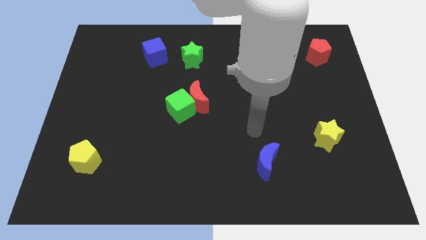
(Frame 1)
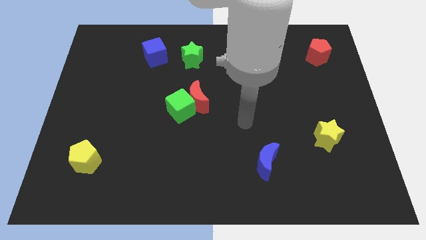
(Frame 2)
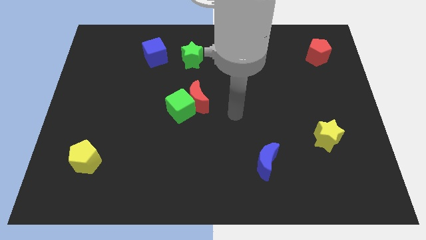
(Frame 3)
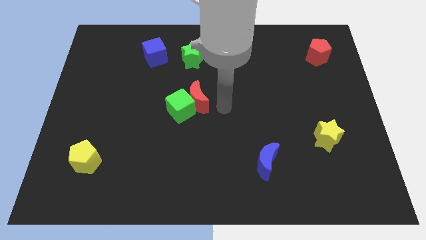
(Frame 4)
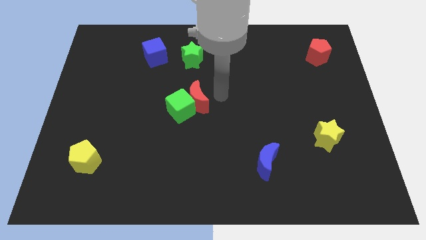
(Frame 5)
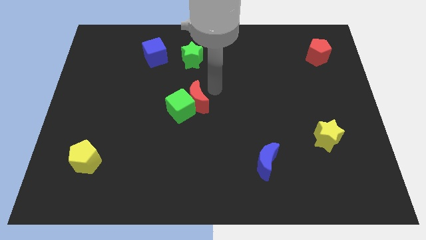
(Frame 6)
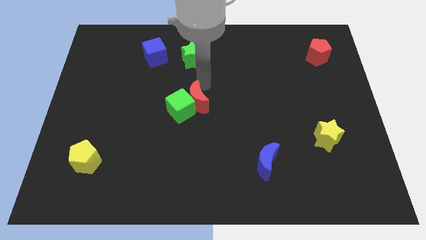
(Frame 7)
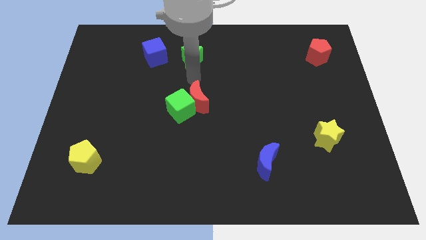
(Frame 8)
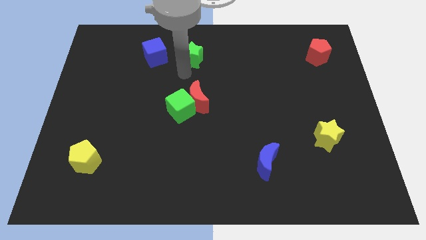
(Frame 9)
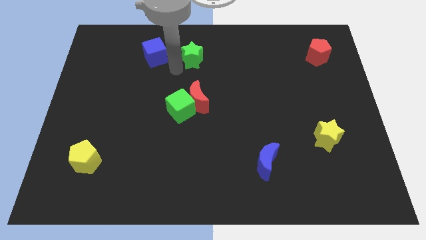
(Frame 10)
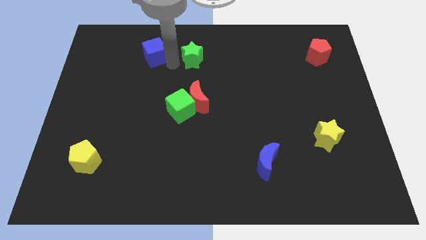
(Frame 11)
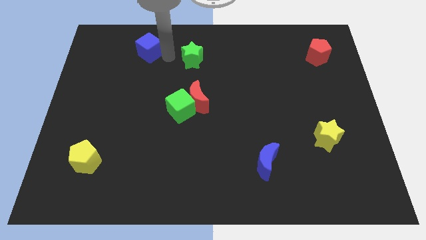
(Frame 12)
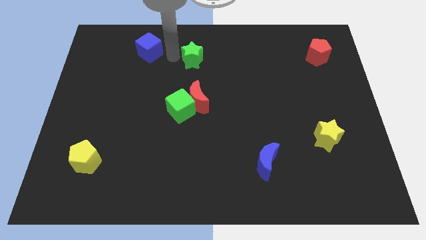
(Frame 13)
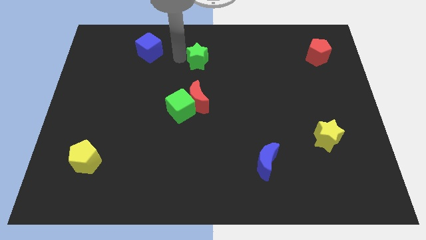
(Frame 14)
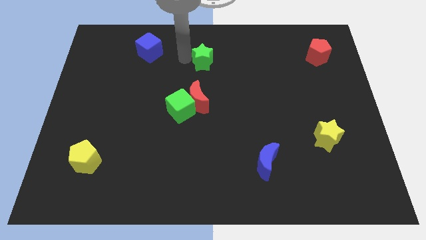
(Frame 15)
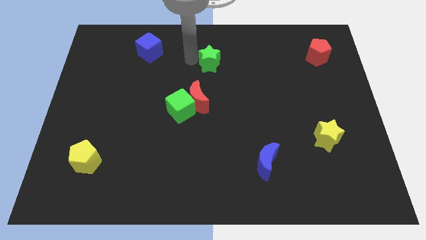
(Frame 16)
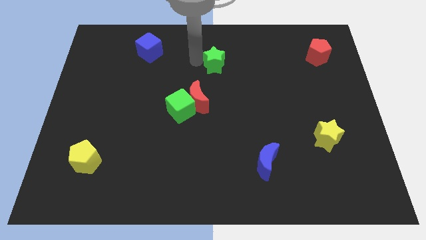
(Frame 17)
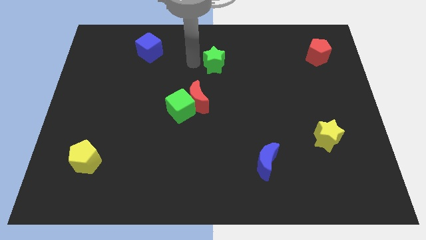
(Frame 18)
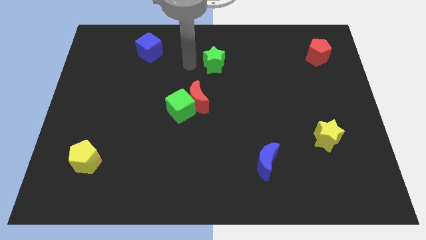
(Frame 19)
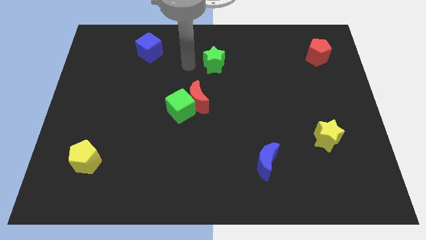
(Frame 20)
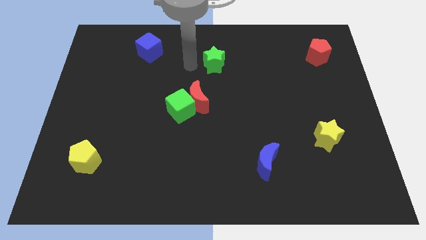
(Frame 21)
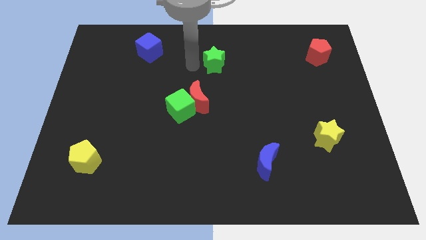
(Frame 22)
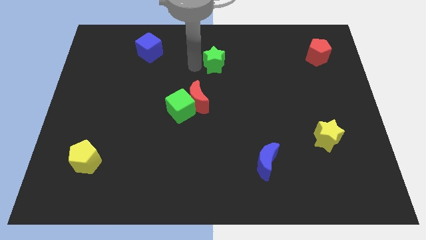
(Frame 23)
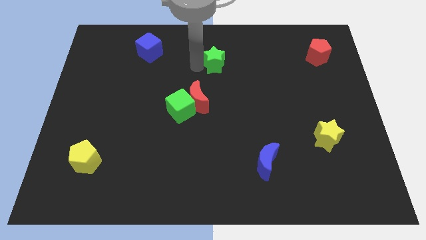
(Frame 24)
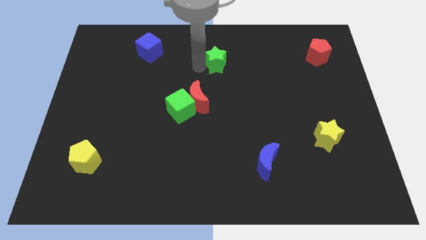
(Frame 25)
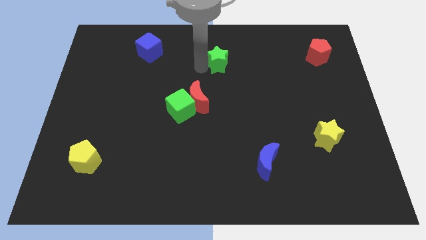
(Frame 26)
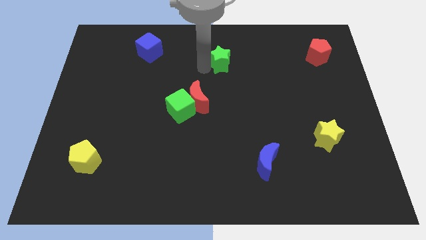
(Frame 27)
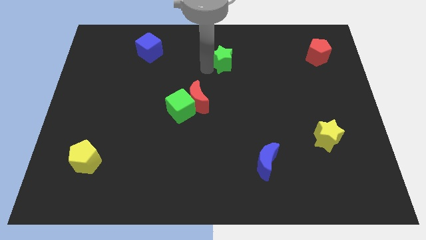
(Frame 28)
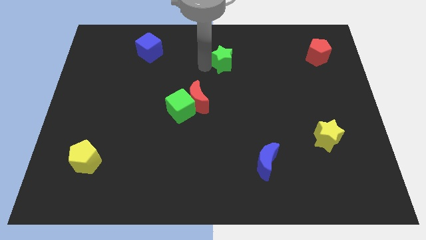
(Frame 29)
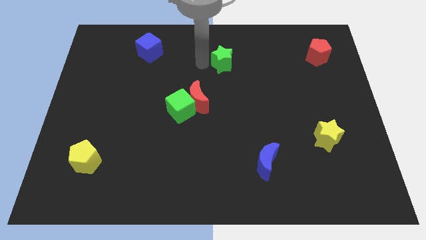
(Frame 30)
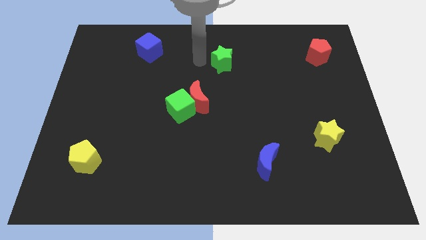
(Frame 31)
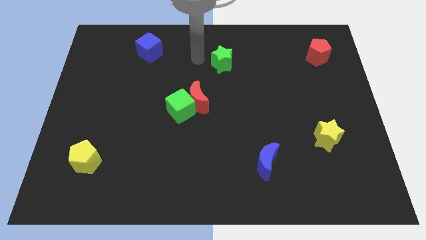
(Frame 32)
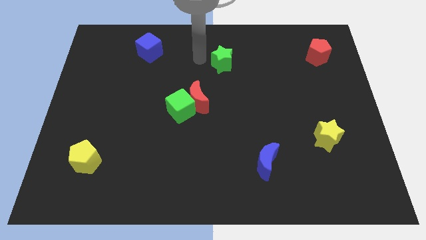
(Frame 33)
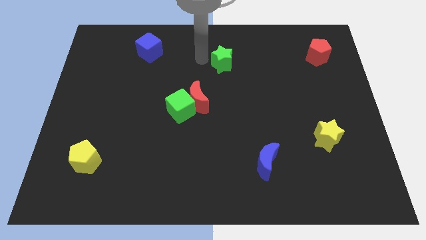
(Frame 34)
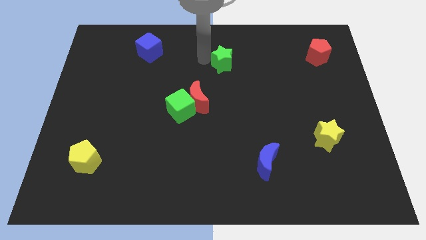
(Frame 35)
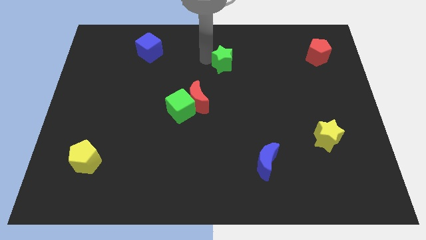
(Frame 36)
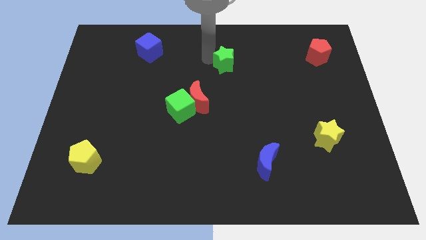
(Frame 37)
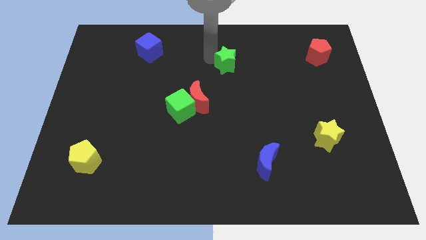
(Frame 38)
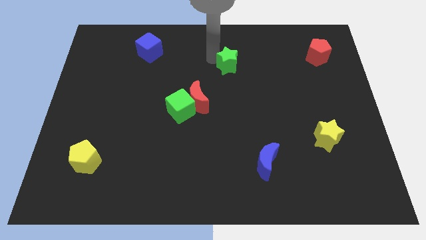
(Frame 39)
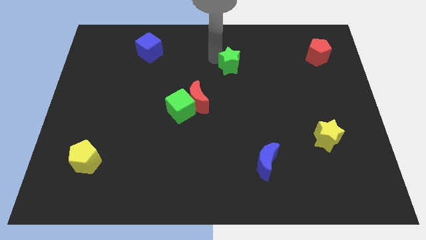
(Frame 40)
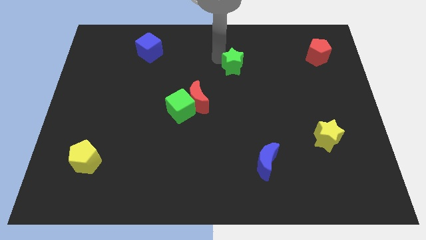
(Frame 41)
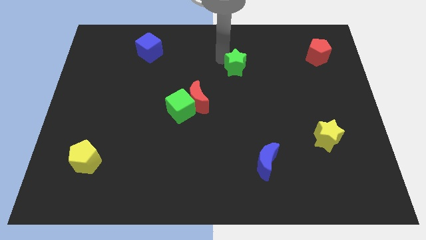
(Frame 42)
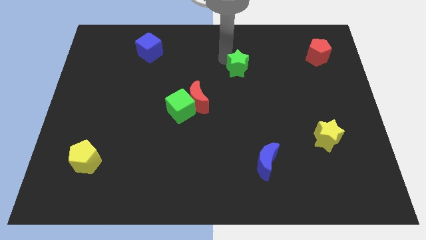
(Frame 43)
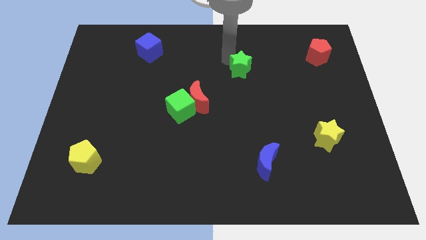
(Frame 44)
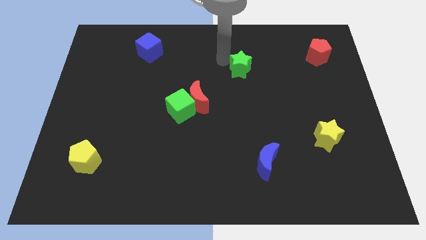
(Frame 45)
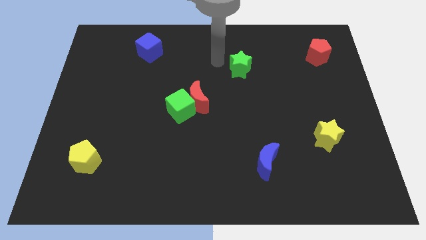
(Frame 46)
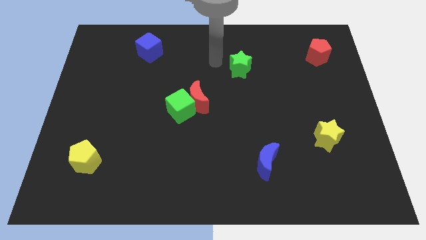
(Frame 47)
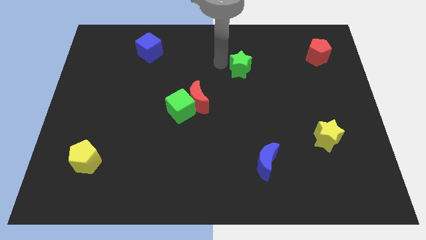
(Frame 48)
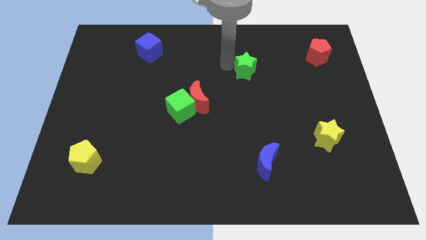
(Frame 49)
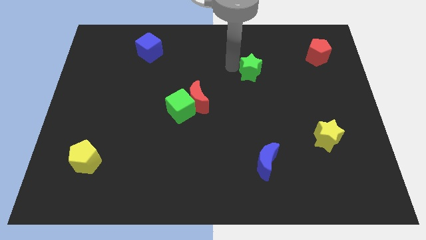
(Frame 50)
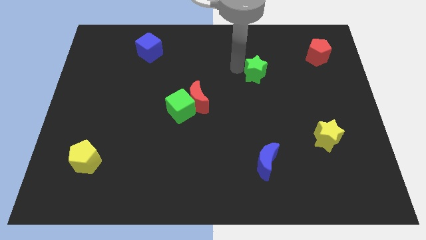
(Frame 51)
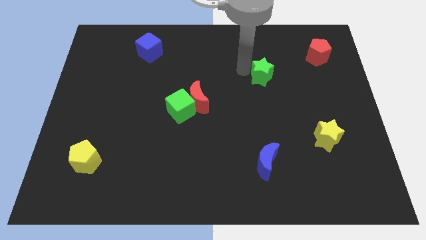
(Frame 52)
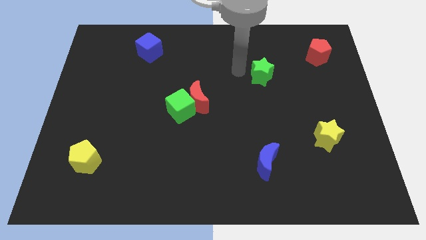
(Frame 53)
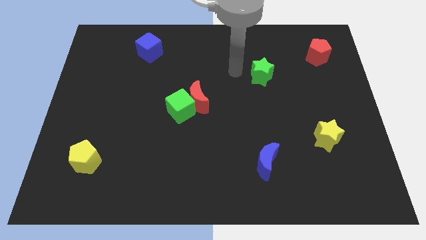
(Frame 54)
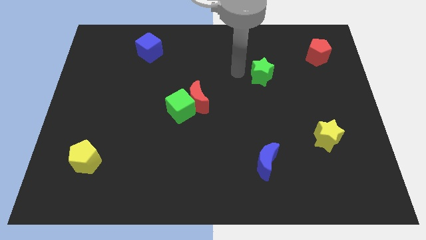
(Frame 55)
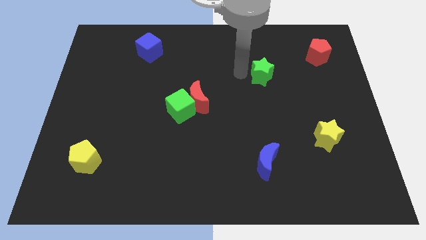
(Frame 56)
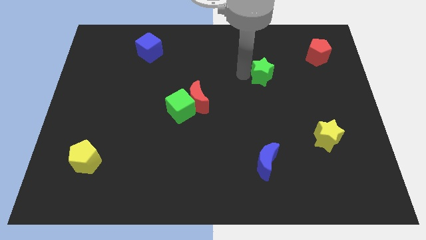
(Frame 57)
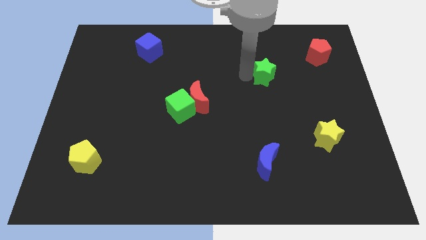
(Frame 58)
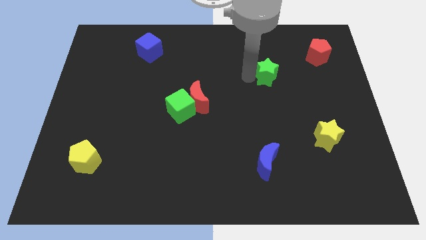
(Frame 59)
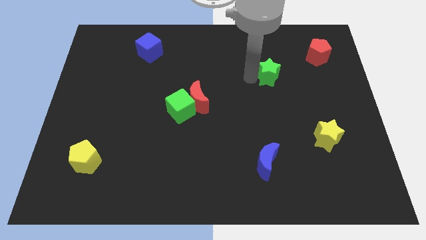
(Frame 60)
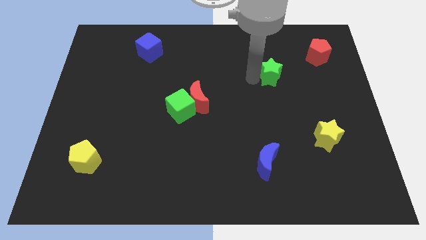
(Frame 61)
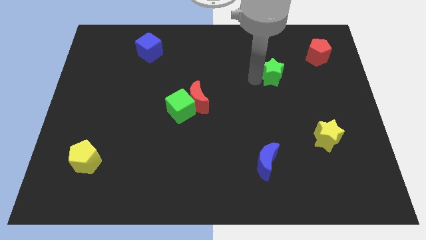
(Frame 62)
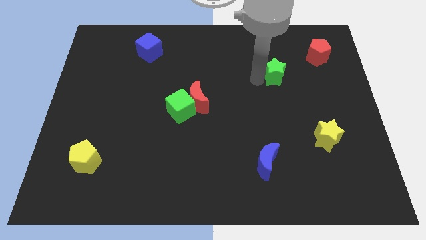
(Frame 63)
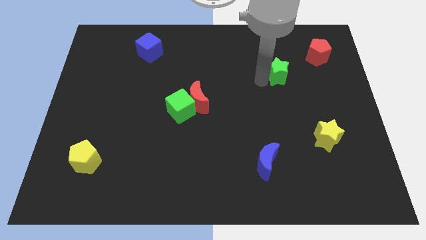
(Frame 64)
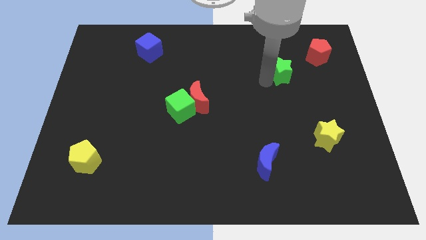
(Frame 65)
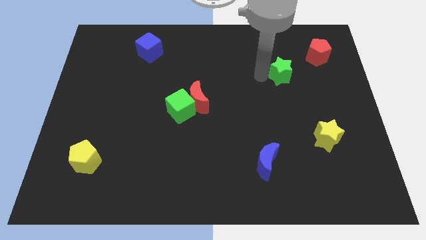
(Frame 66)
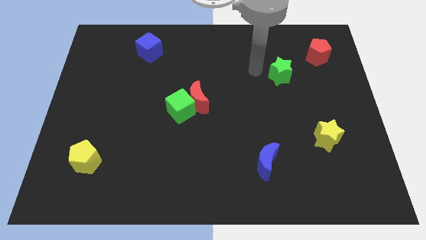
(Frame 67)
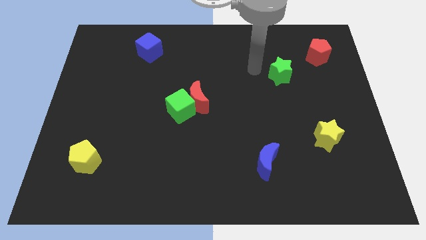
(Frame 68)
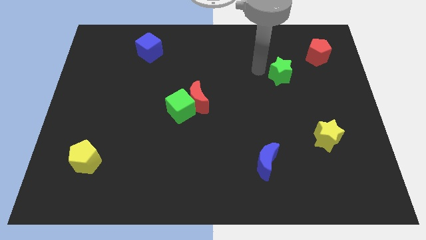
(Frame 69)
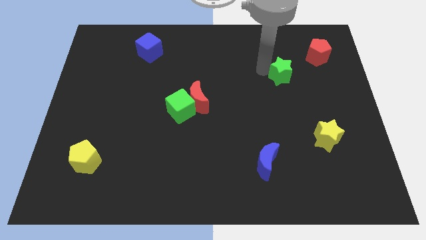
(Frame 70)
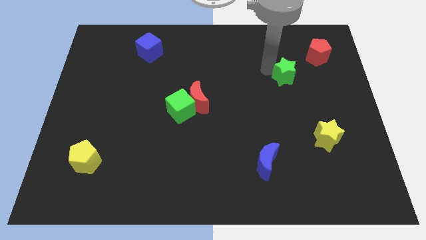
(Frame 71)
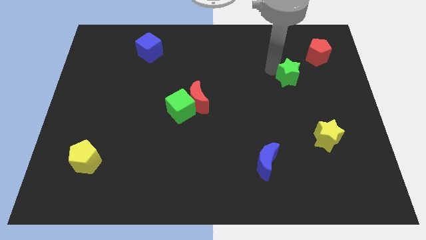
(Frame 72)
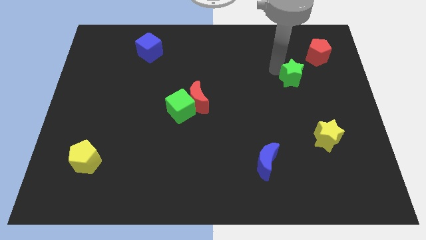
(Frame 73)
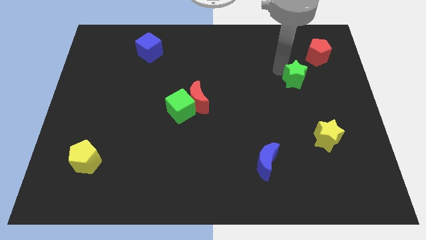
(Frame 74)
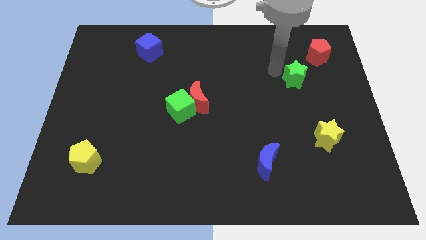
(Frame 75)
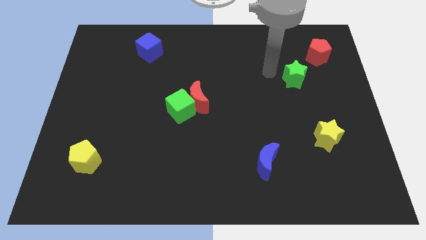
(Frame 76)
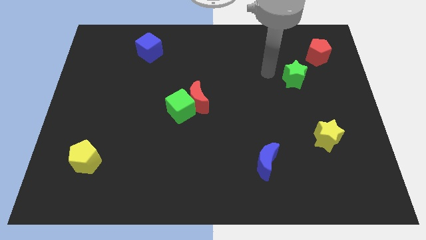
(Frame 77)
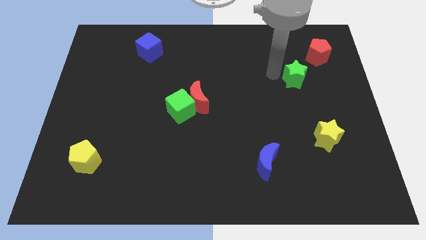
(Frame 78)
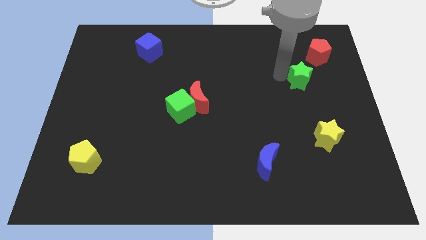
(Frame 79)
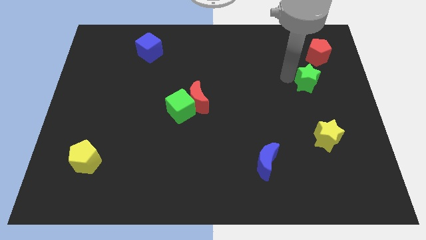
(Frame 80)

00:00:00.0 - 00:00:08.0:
push the green star to the bottom side of the red pentagon
